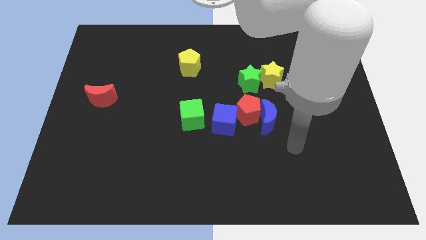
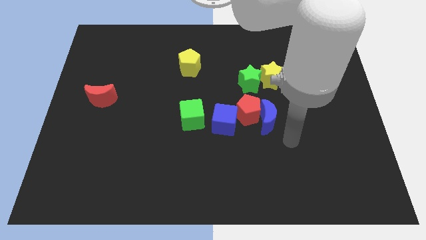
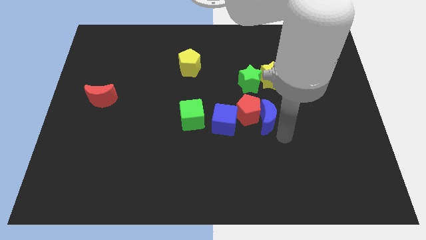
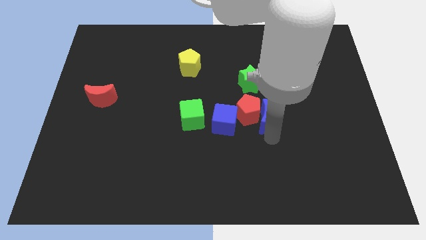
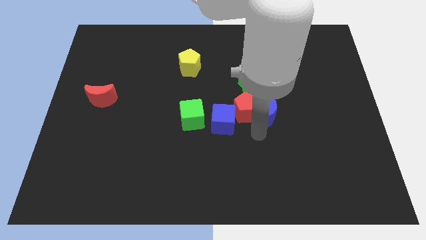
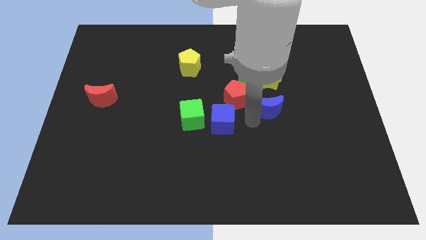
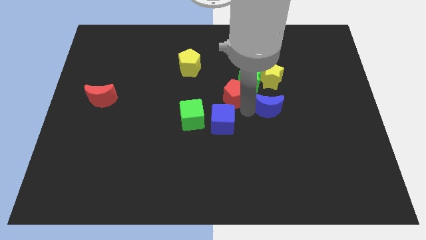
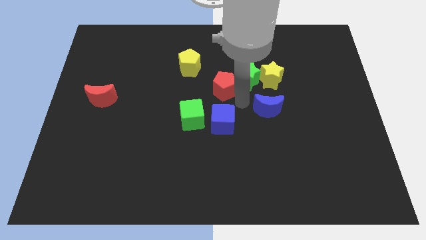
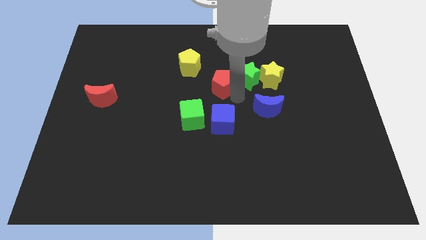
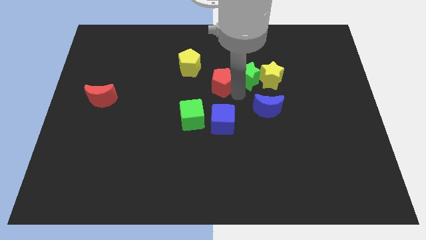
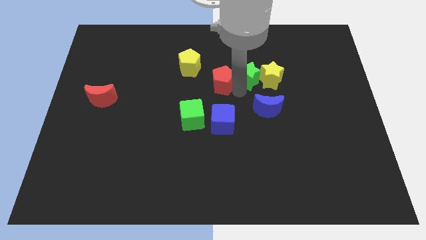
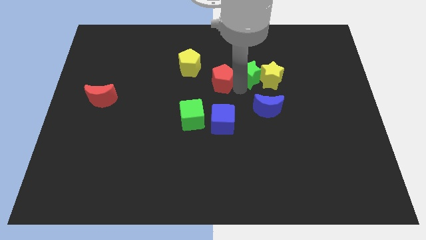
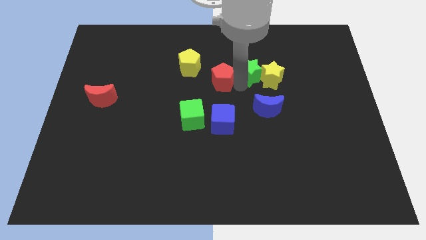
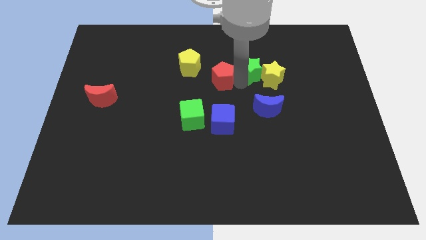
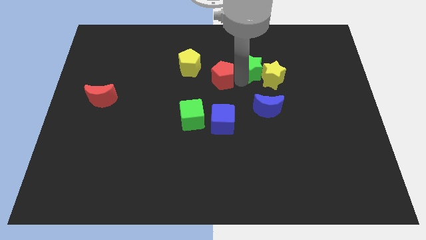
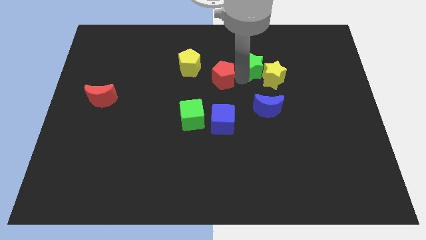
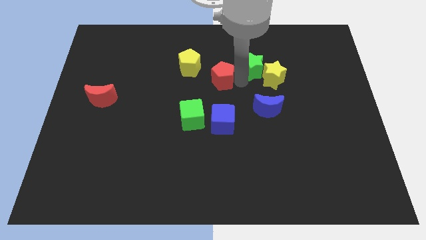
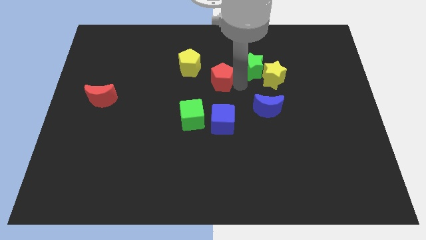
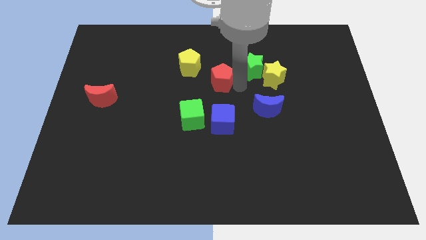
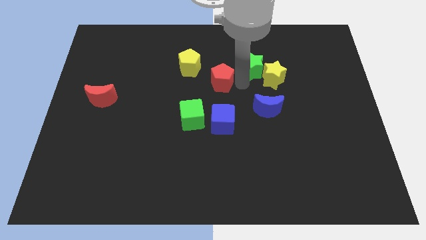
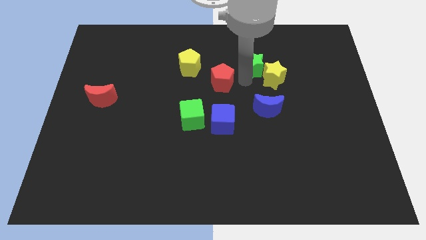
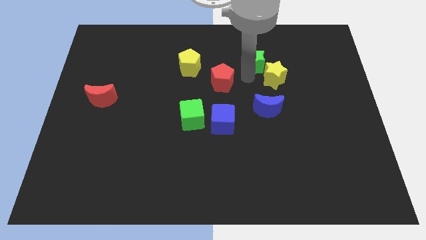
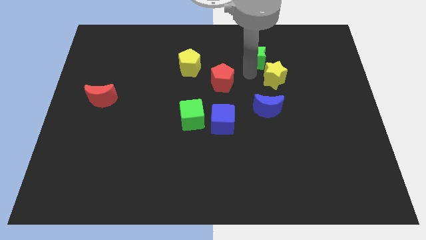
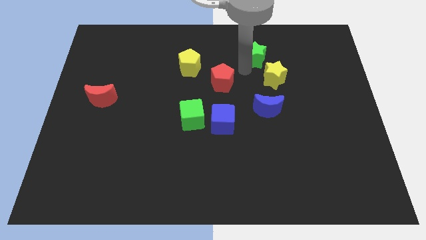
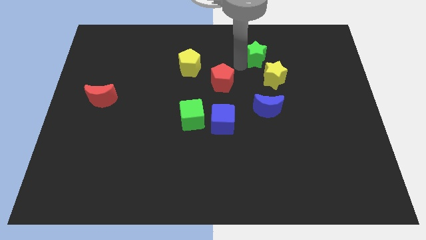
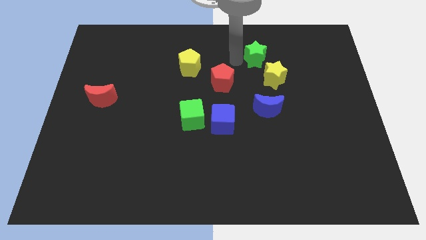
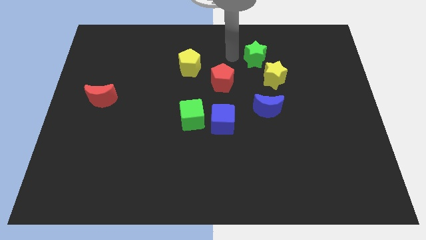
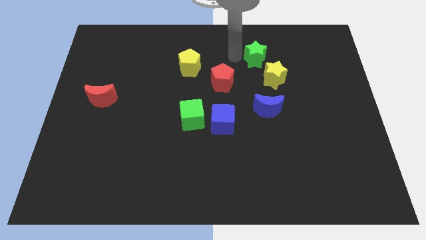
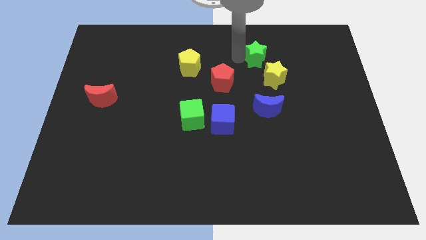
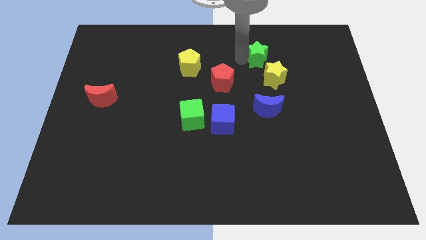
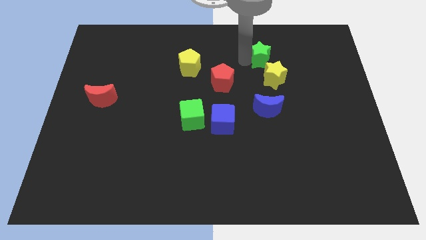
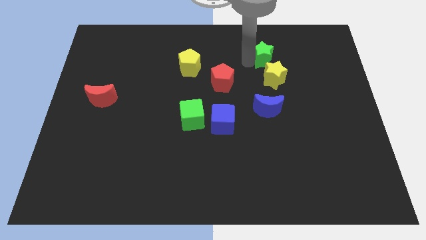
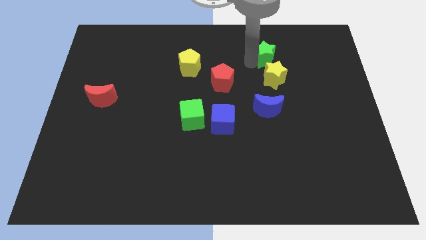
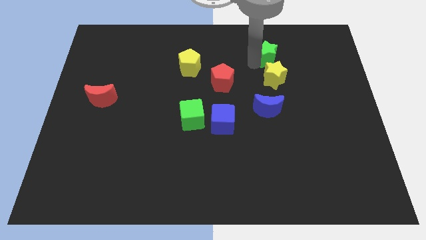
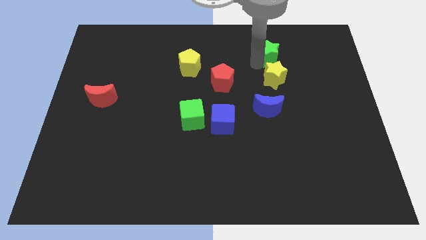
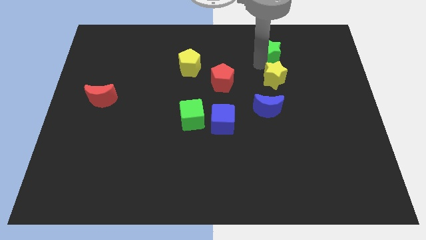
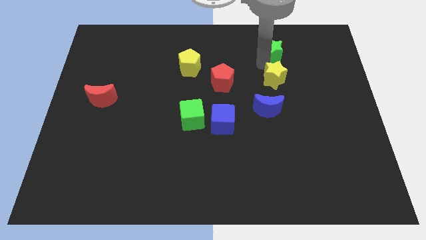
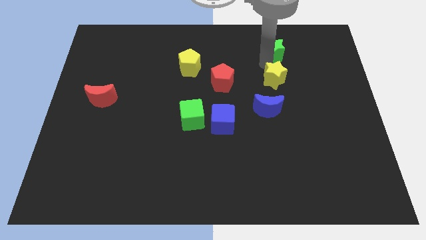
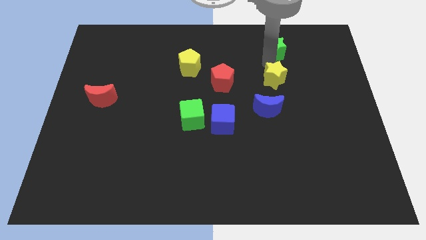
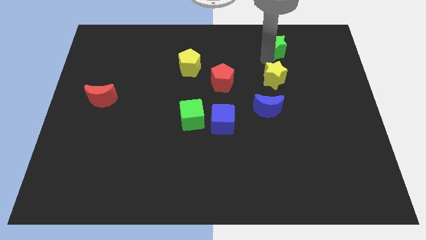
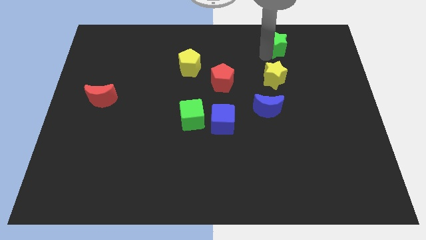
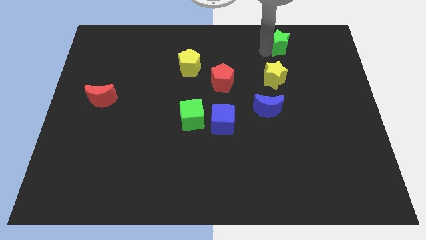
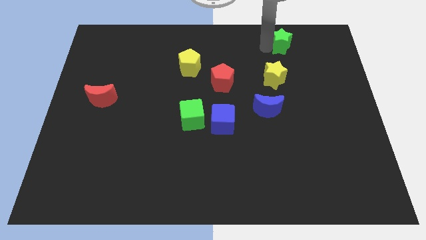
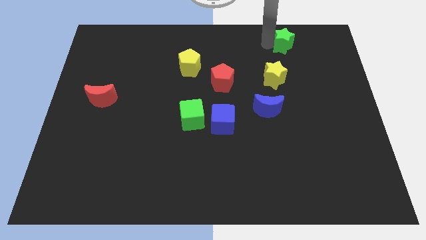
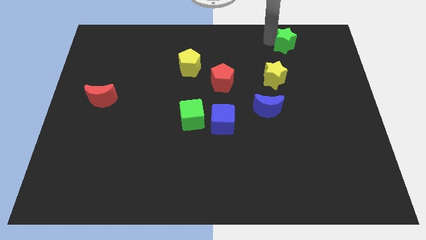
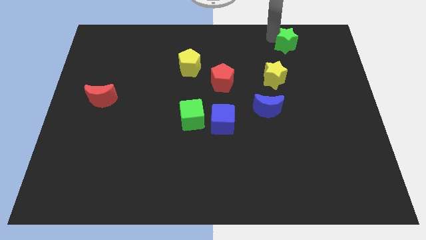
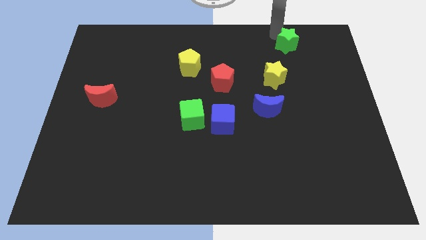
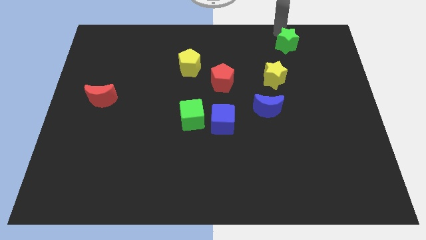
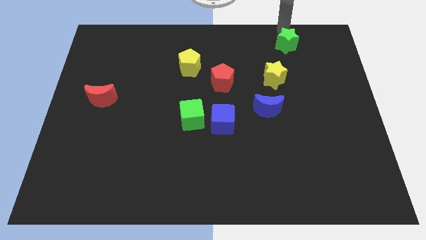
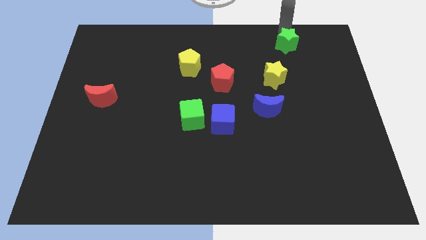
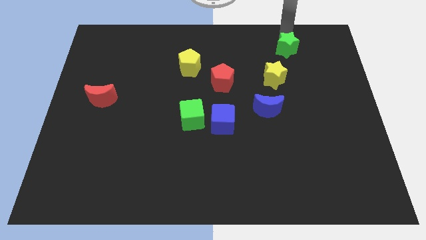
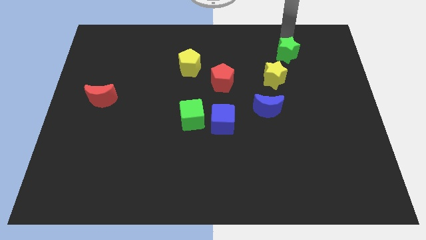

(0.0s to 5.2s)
push the green star diagonally up and to the right of the yellow star
